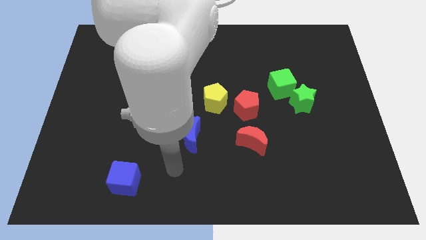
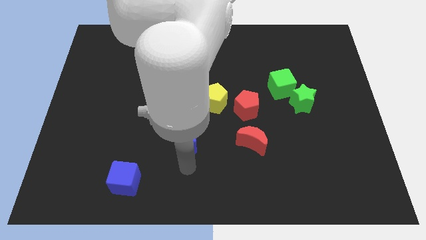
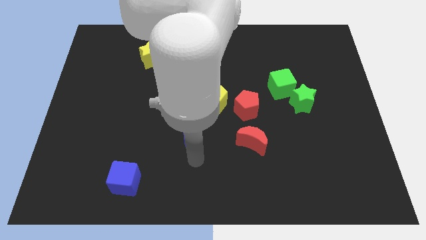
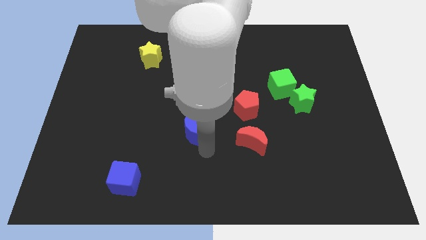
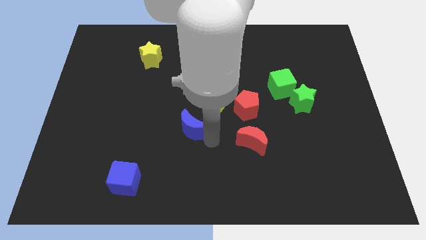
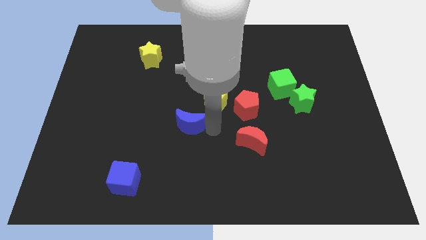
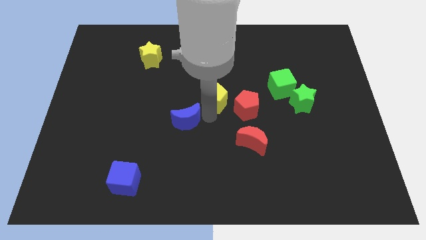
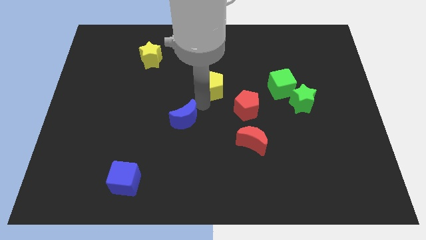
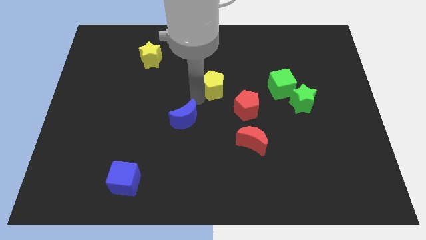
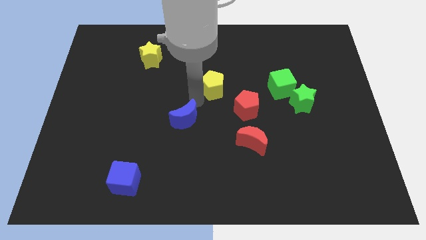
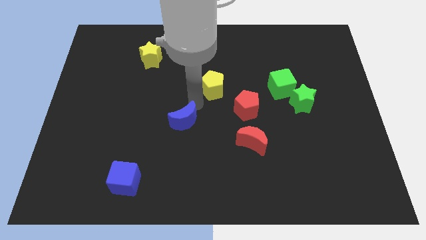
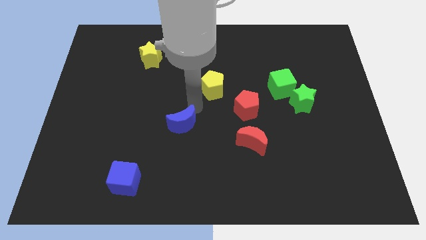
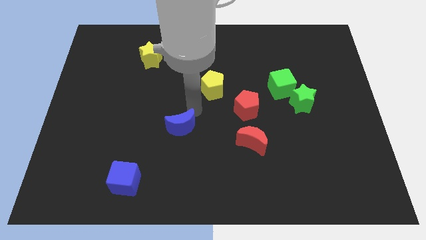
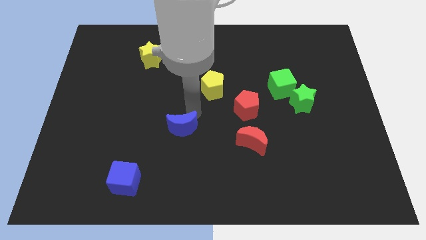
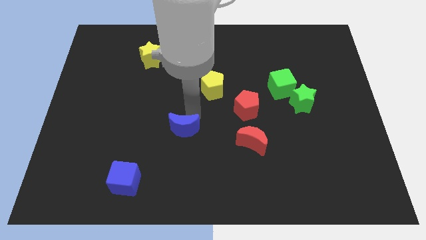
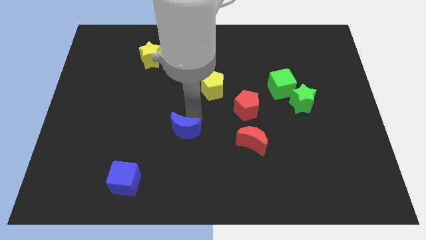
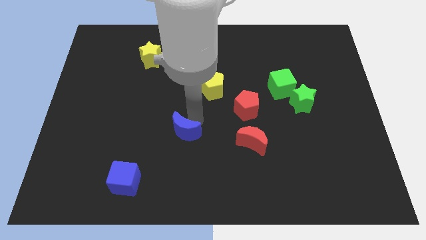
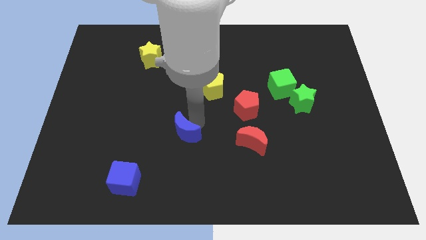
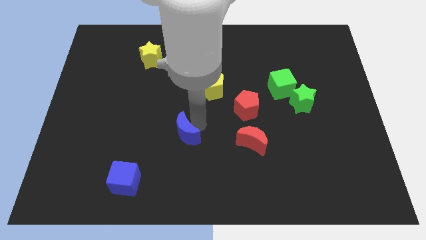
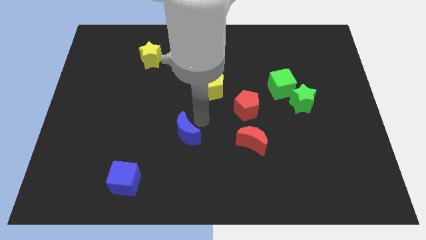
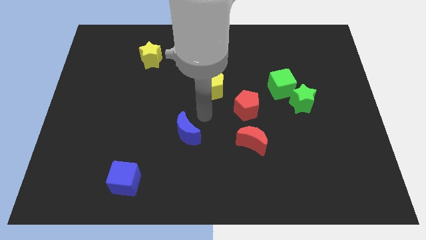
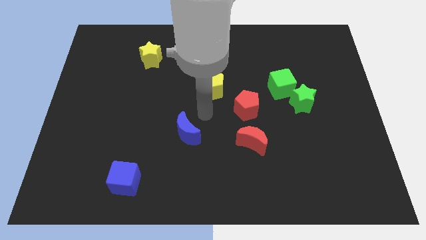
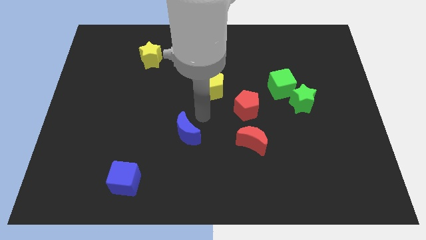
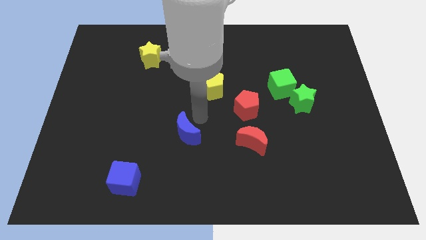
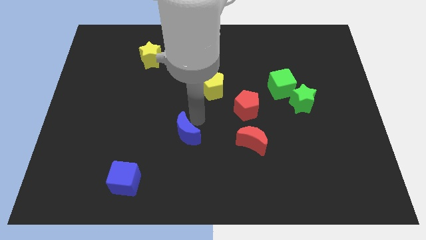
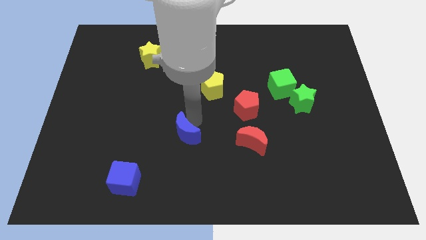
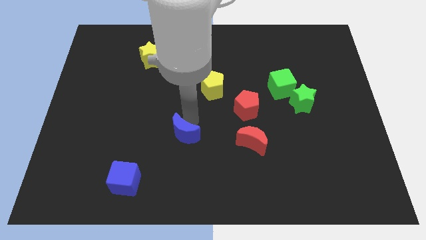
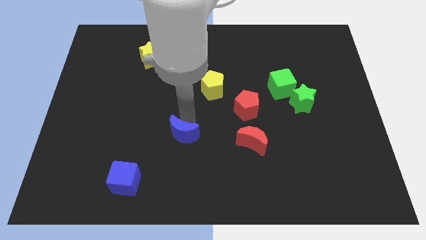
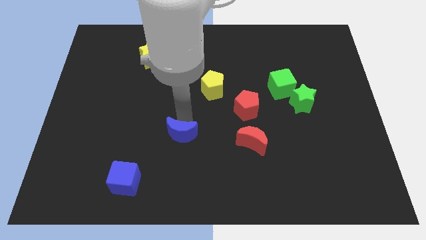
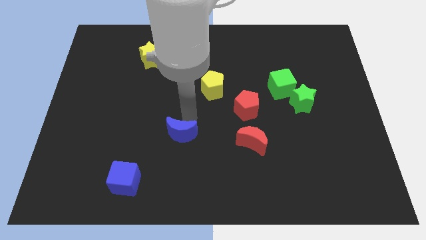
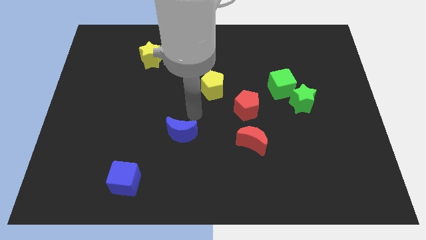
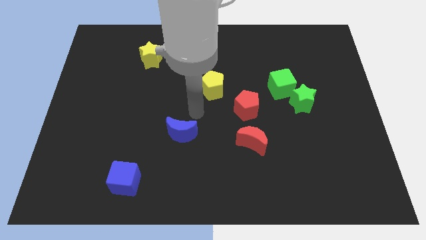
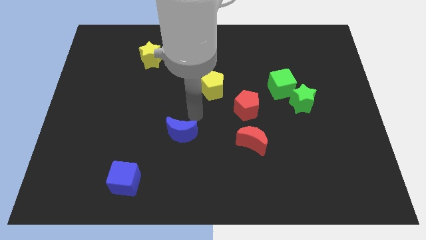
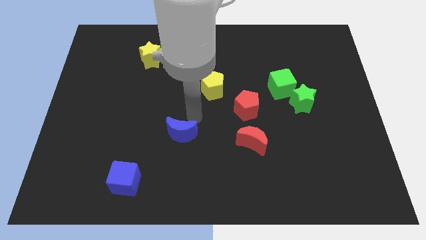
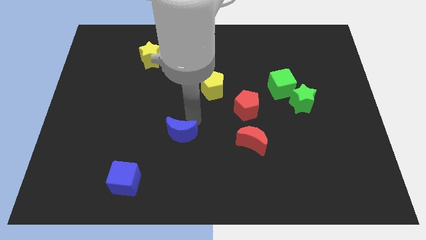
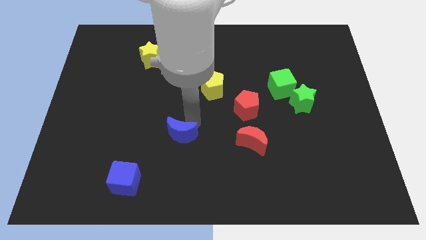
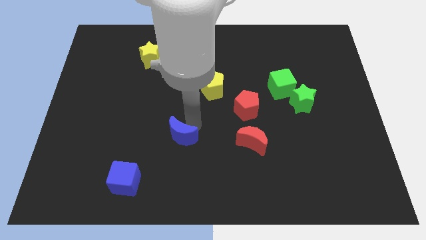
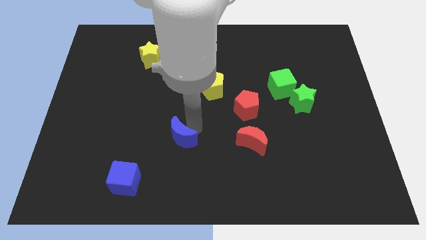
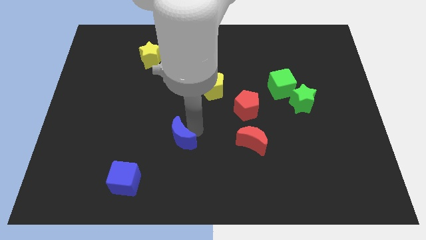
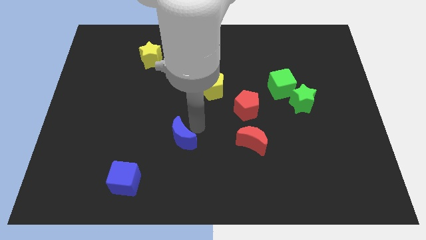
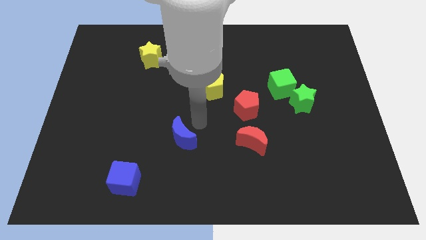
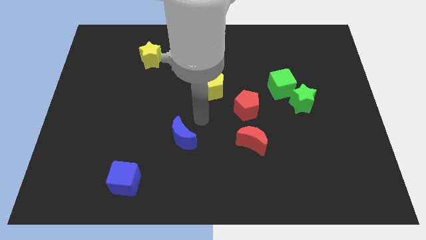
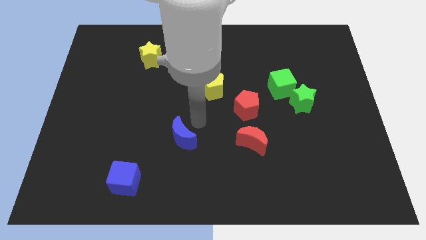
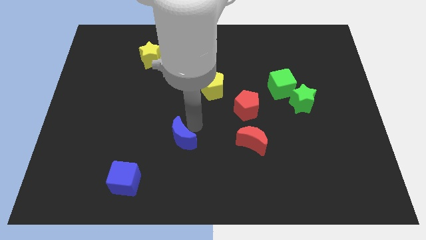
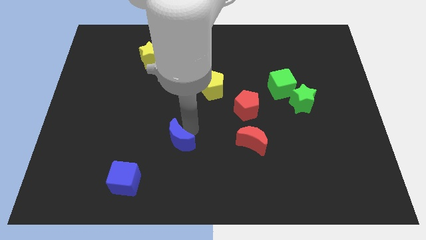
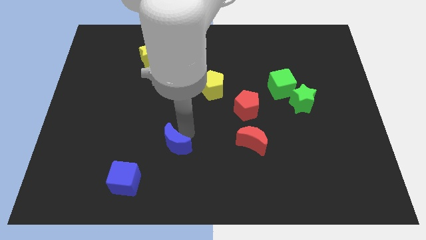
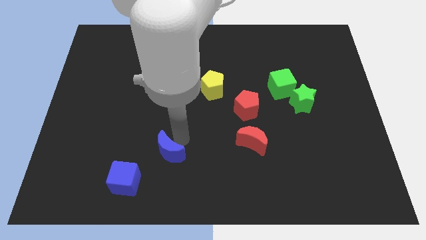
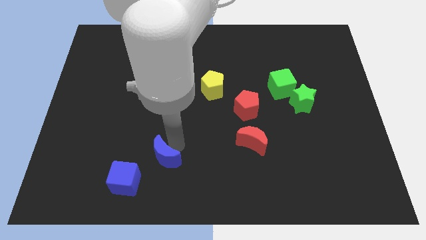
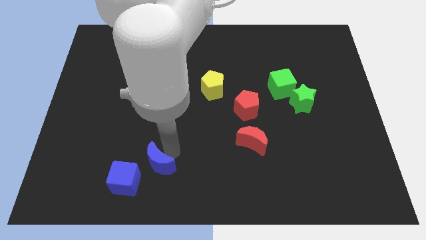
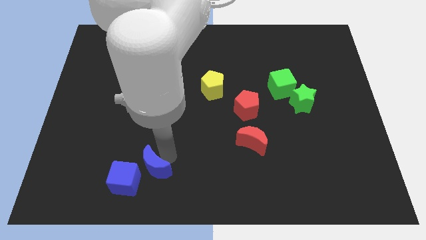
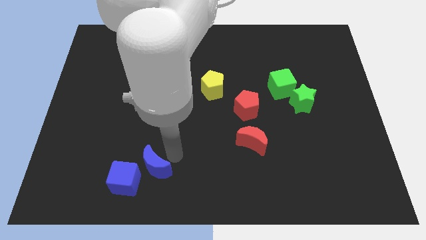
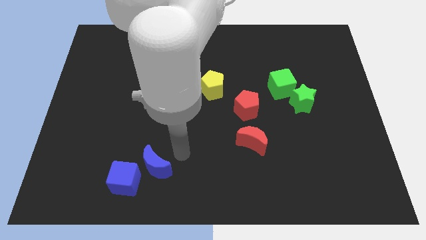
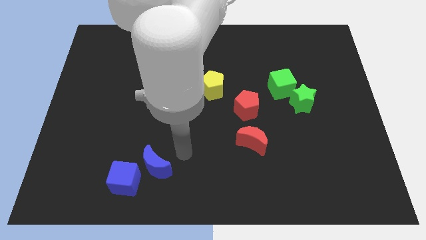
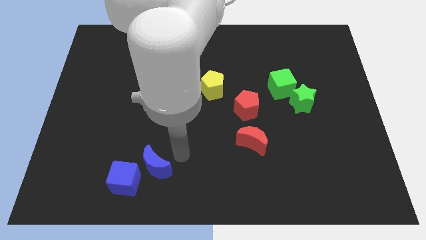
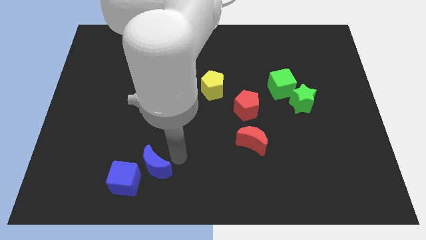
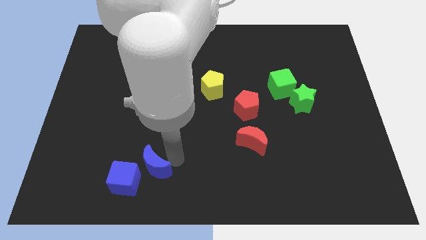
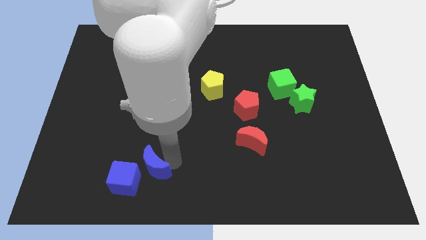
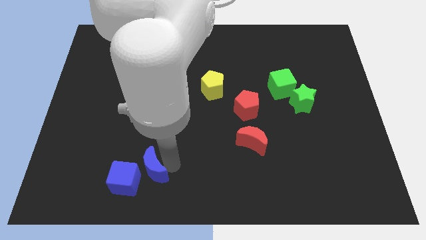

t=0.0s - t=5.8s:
slide the blue moon to the blue cube

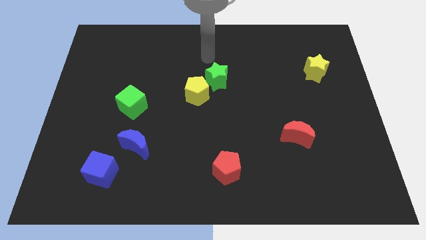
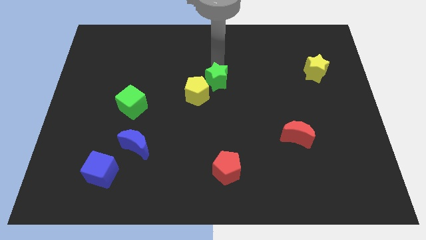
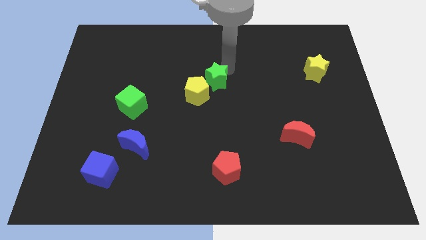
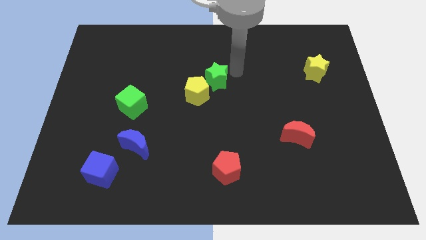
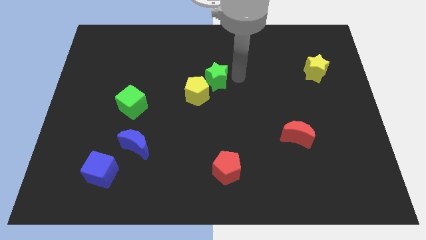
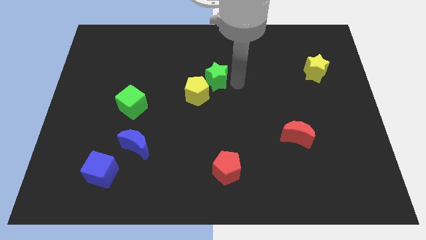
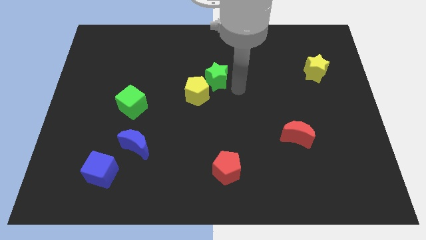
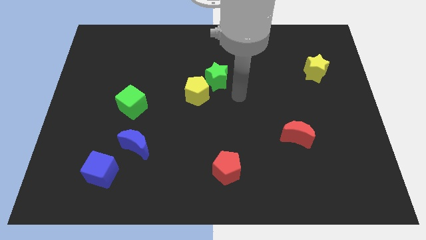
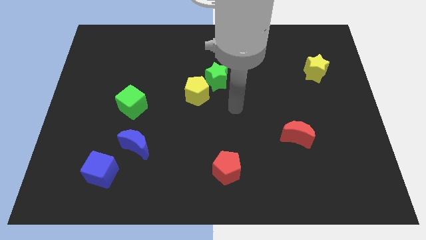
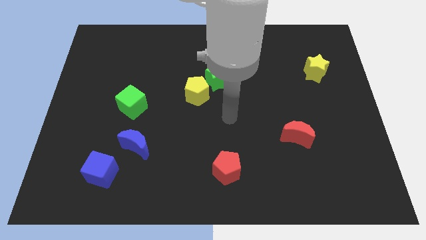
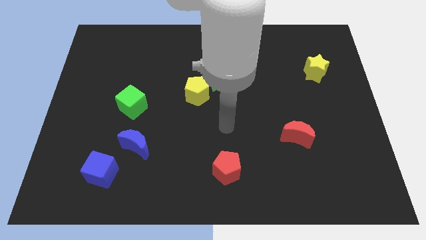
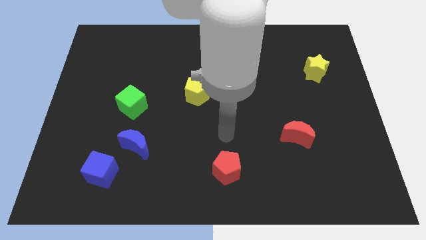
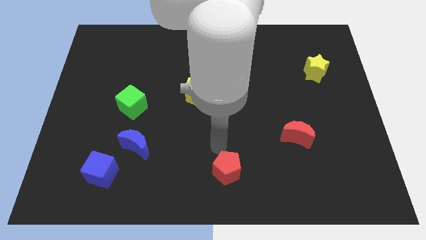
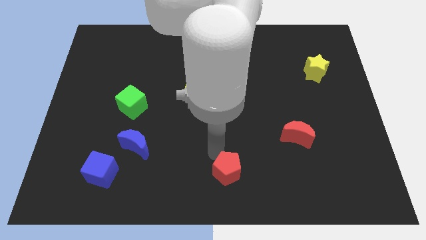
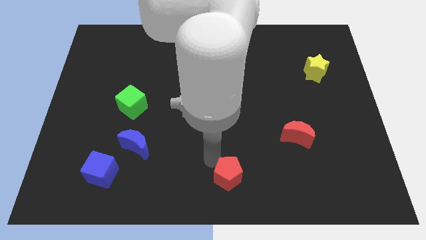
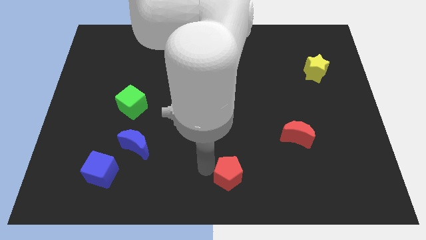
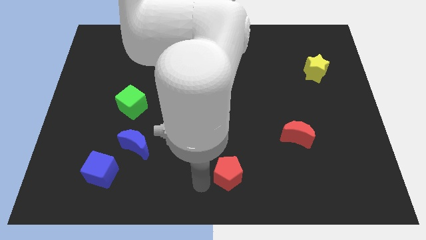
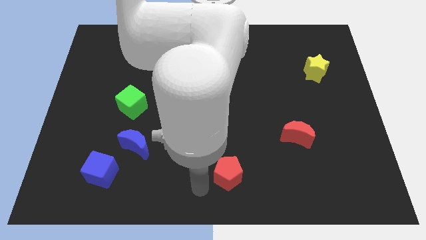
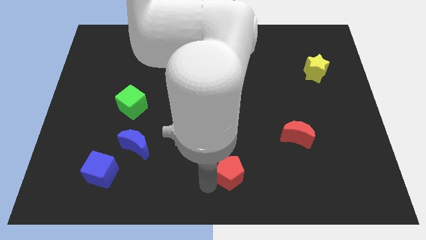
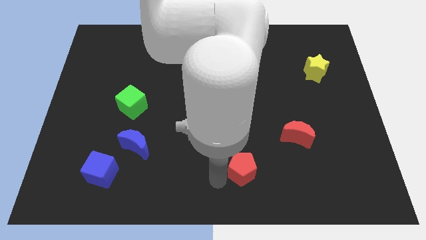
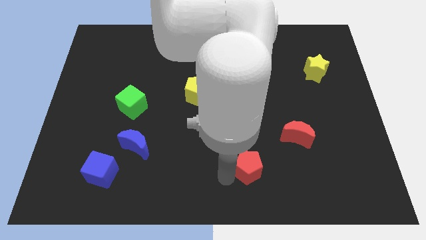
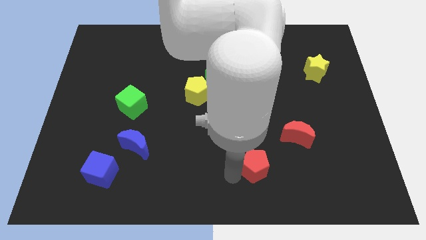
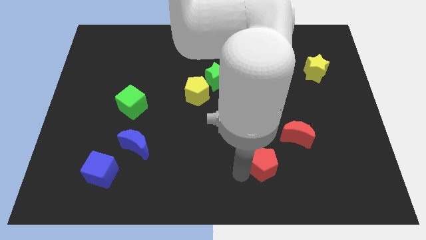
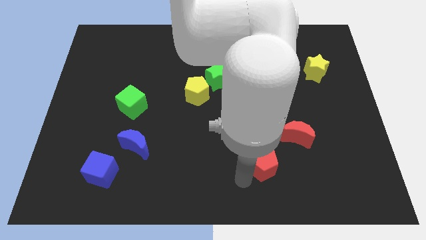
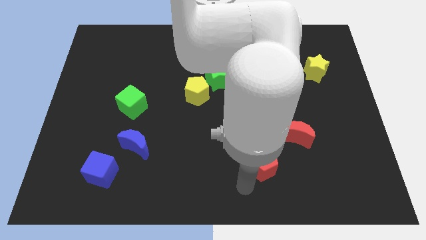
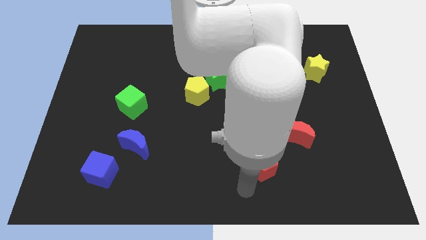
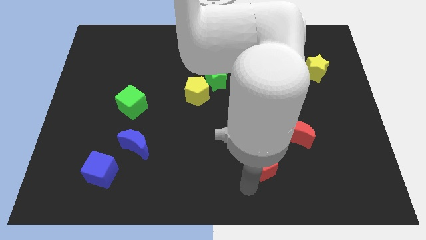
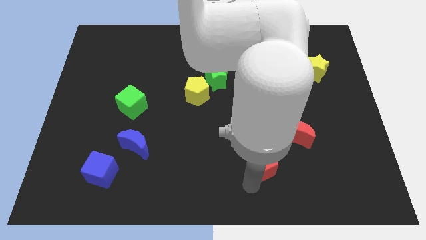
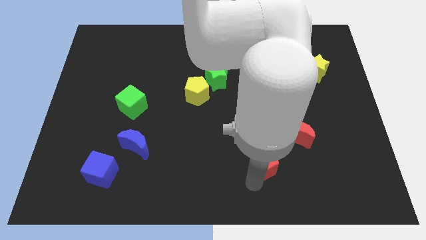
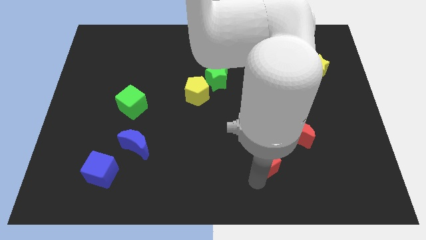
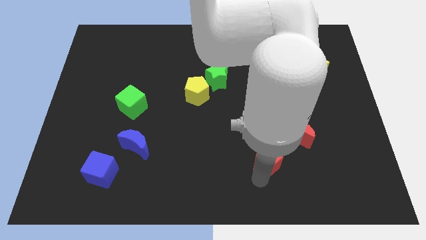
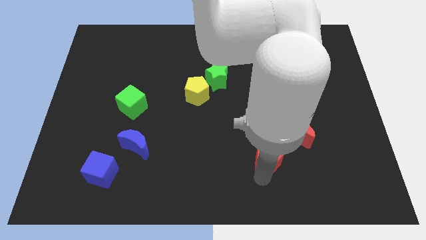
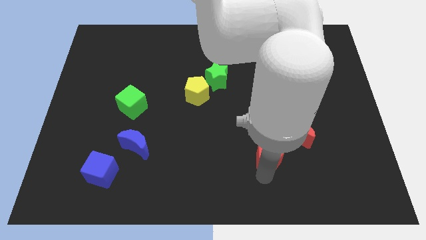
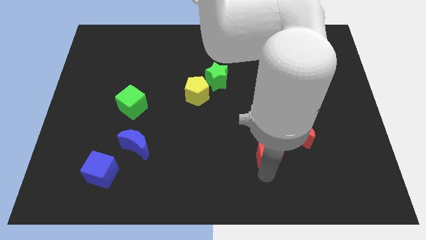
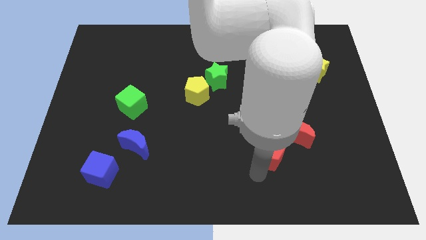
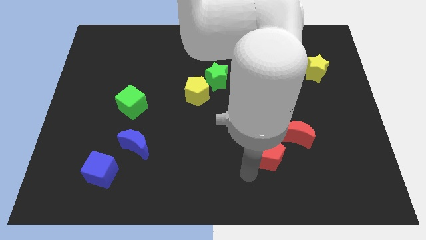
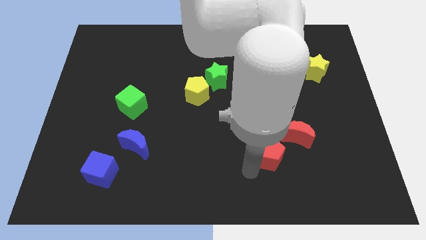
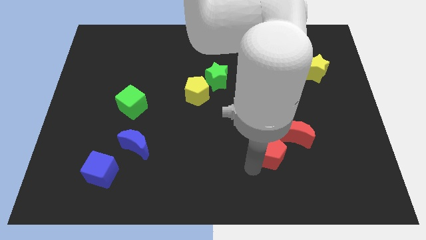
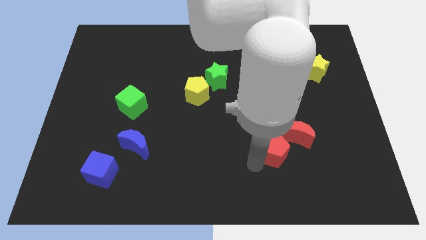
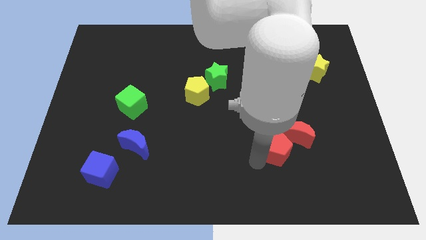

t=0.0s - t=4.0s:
put the red pentagon close to the red moon
